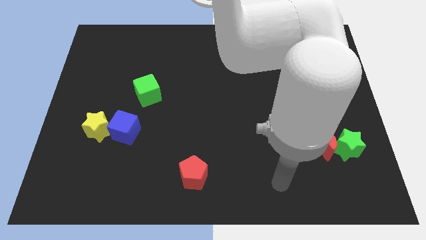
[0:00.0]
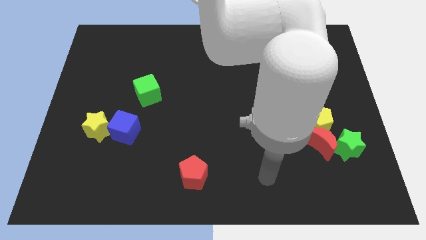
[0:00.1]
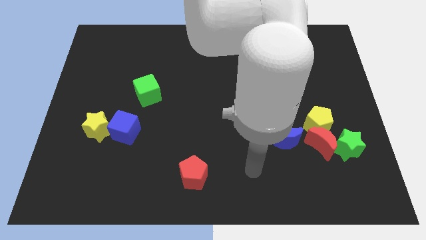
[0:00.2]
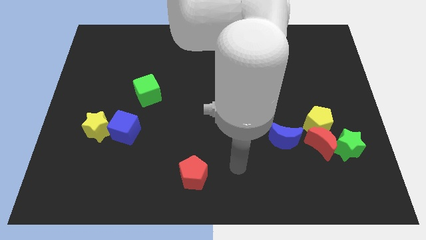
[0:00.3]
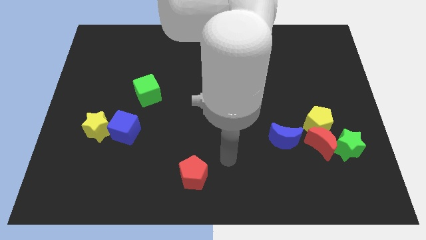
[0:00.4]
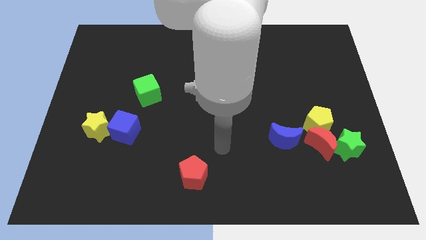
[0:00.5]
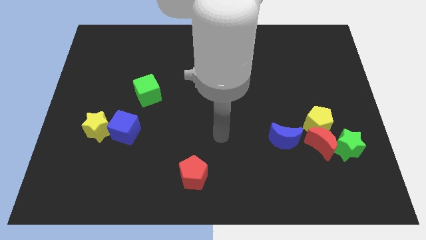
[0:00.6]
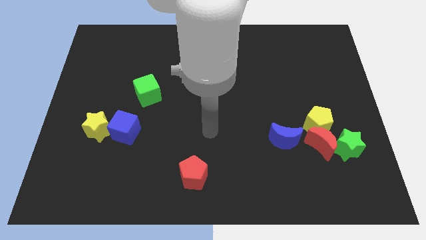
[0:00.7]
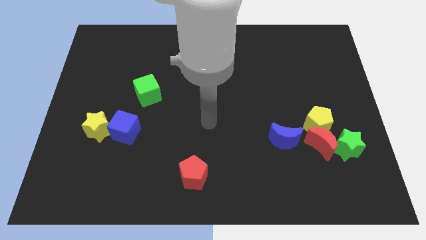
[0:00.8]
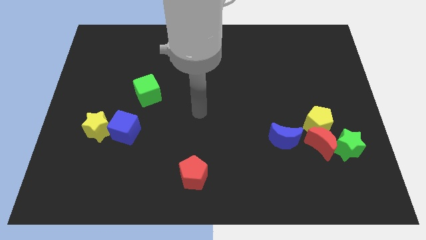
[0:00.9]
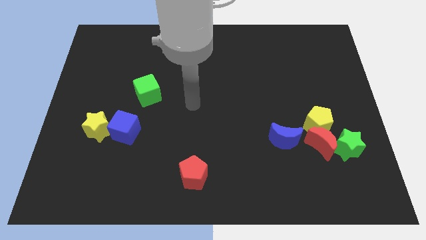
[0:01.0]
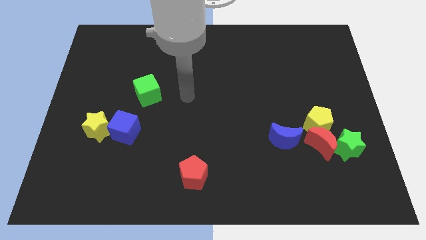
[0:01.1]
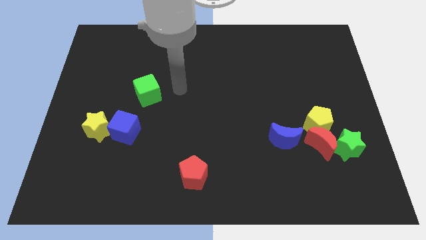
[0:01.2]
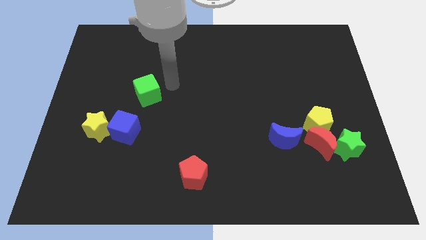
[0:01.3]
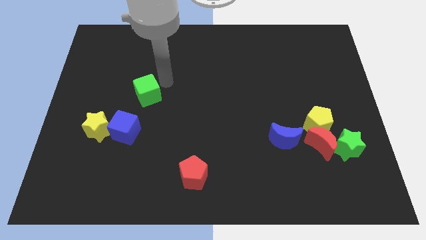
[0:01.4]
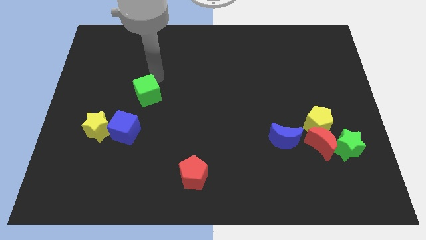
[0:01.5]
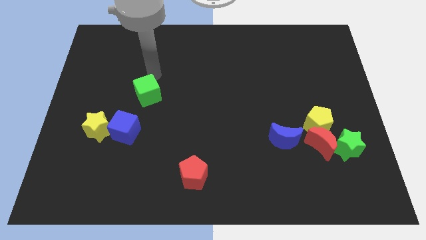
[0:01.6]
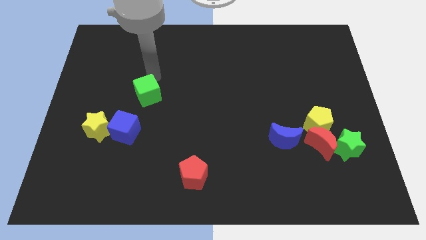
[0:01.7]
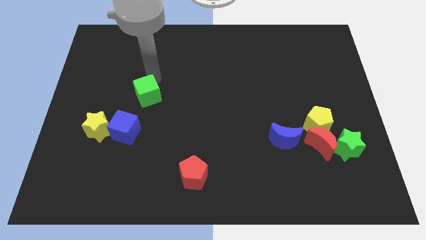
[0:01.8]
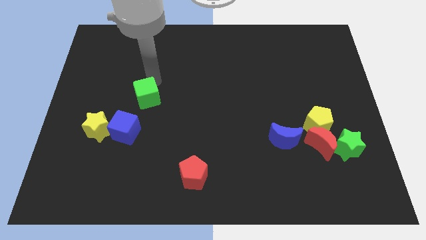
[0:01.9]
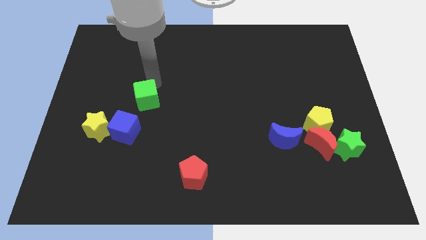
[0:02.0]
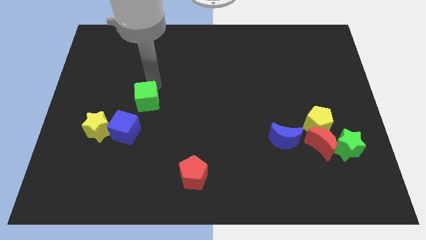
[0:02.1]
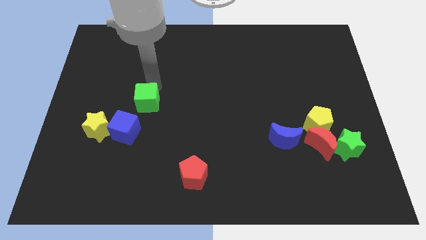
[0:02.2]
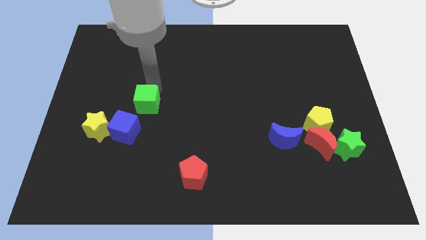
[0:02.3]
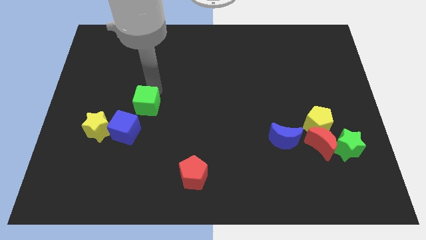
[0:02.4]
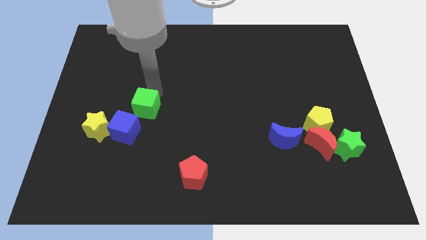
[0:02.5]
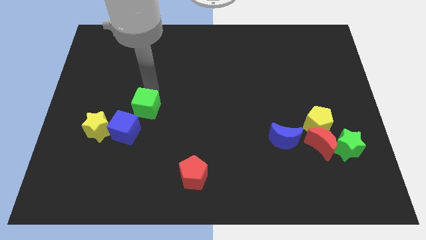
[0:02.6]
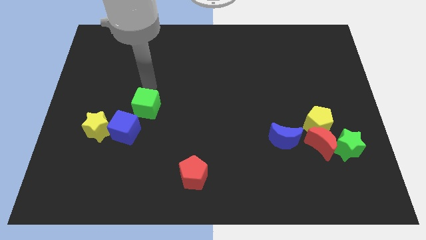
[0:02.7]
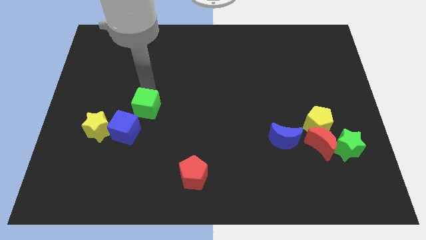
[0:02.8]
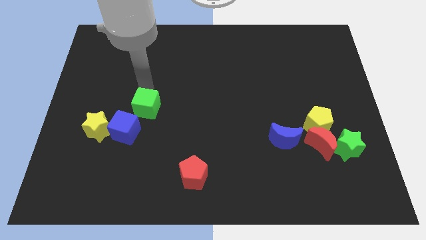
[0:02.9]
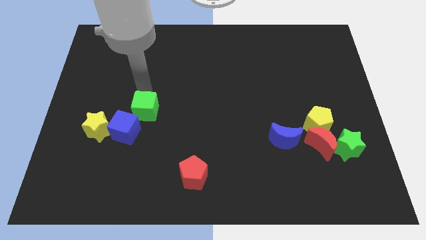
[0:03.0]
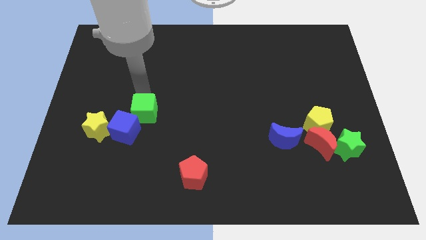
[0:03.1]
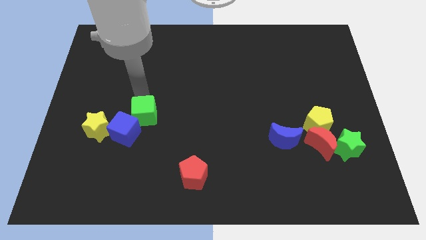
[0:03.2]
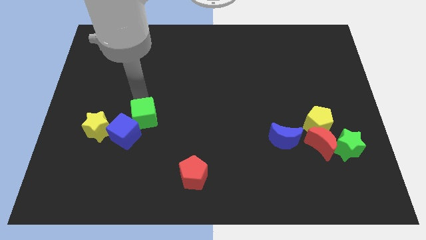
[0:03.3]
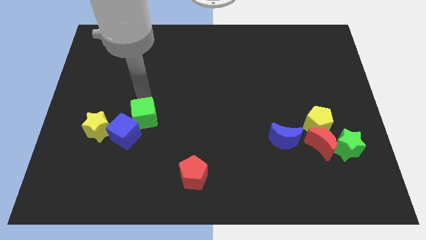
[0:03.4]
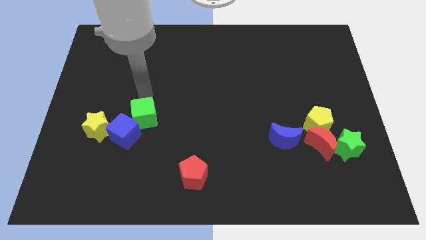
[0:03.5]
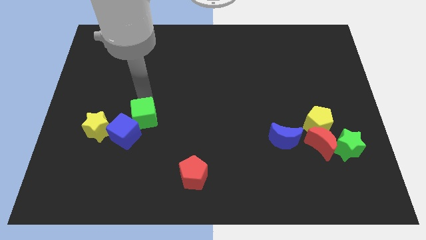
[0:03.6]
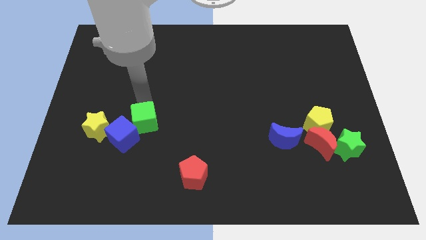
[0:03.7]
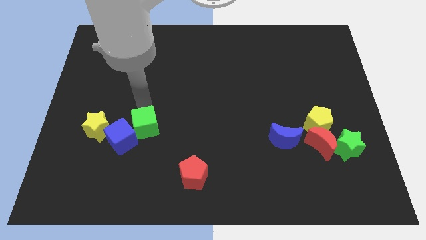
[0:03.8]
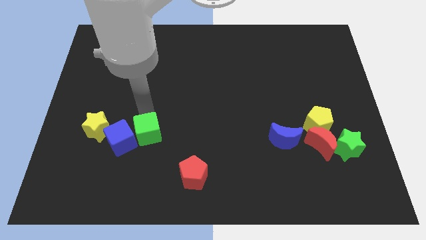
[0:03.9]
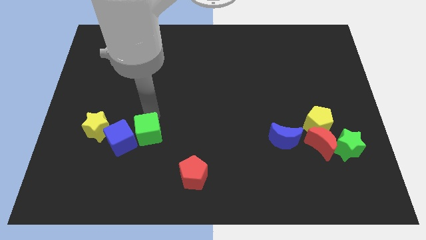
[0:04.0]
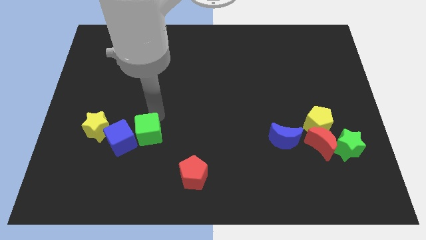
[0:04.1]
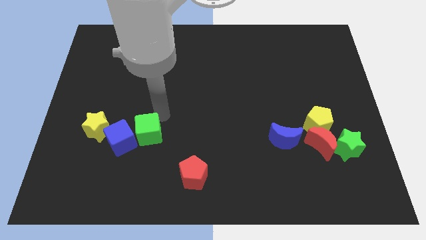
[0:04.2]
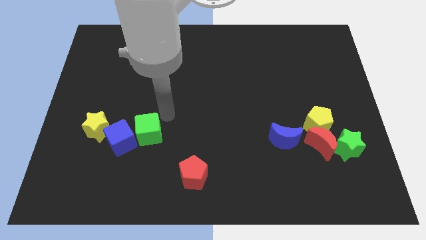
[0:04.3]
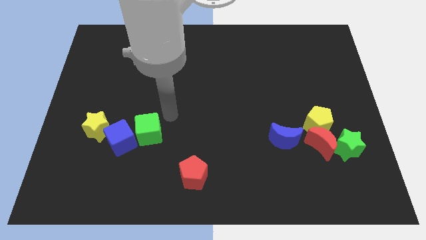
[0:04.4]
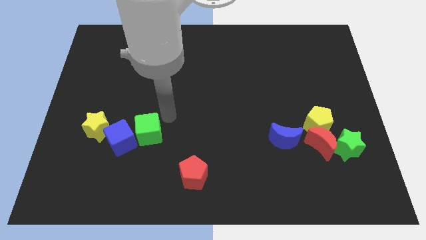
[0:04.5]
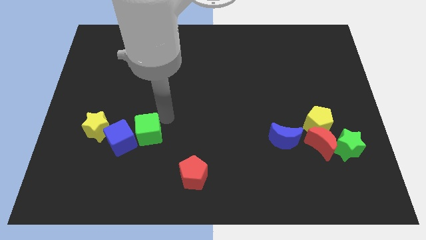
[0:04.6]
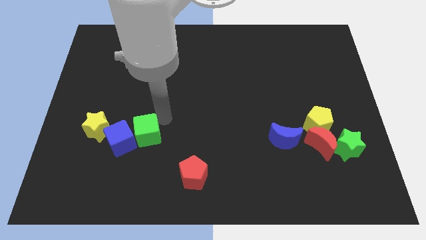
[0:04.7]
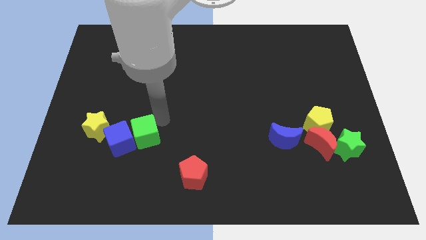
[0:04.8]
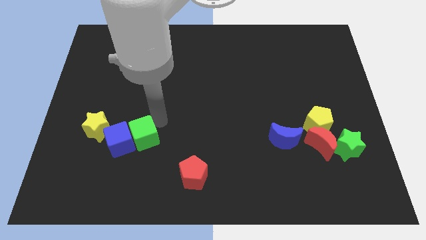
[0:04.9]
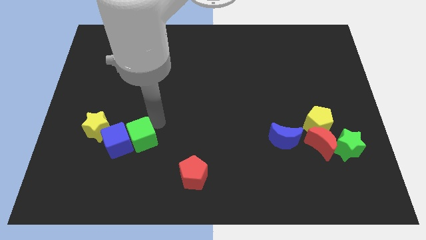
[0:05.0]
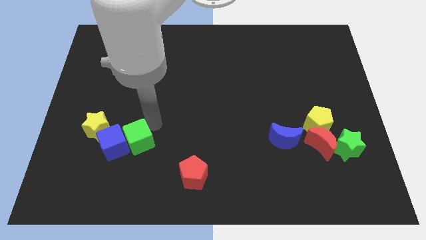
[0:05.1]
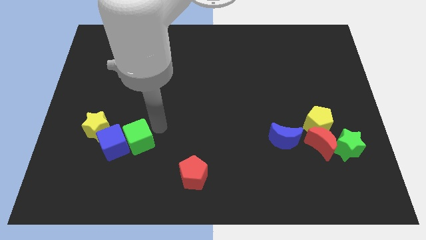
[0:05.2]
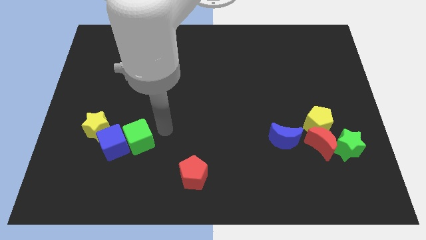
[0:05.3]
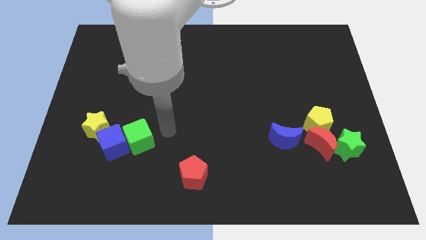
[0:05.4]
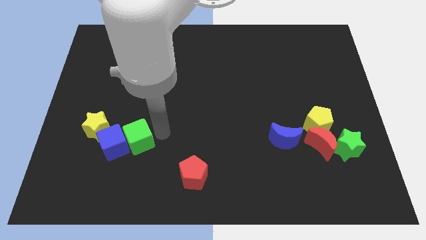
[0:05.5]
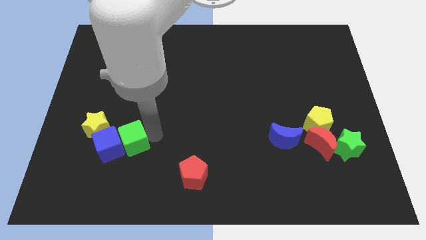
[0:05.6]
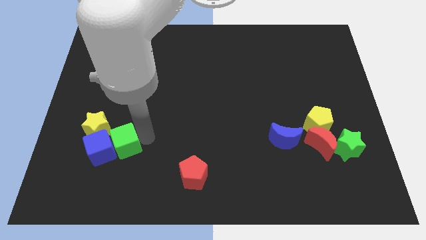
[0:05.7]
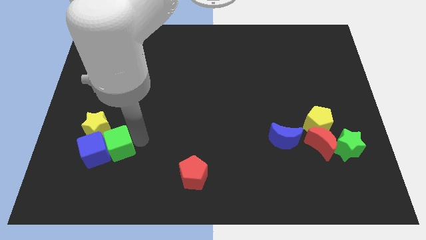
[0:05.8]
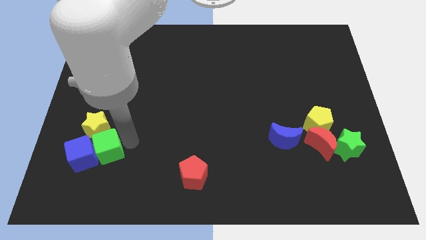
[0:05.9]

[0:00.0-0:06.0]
push the green cube to the bottom of the yellow star

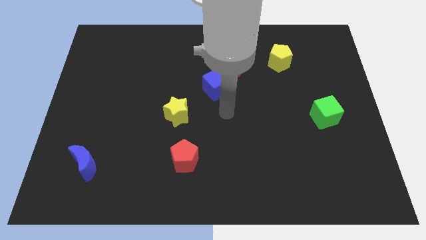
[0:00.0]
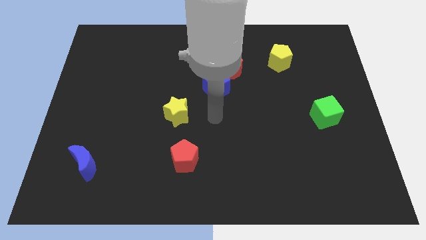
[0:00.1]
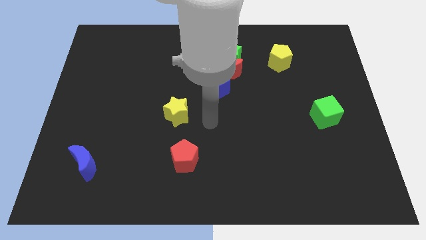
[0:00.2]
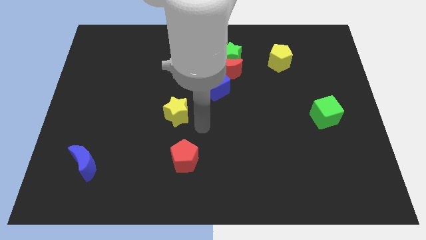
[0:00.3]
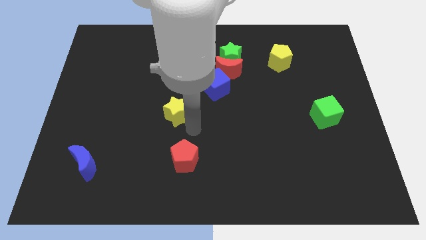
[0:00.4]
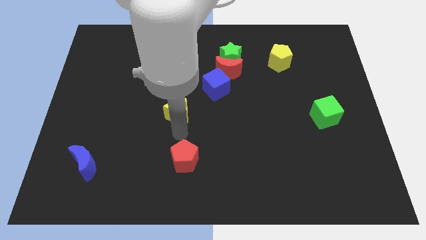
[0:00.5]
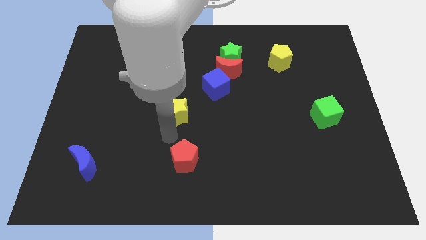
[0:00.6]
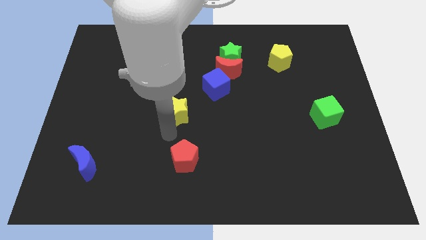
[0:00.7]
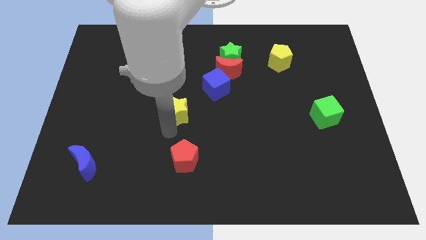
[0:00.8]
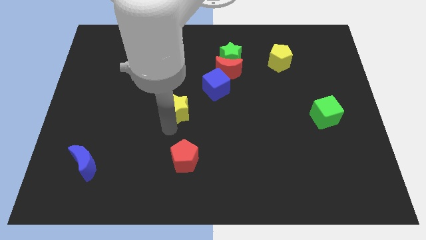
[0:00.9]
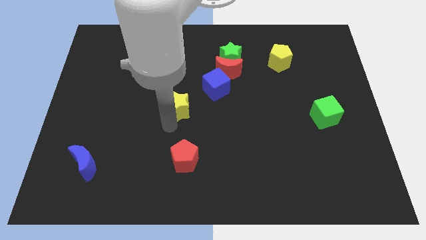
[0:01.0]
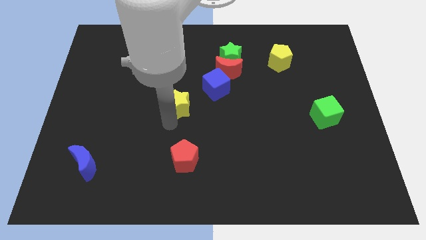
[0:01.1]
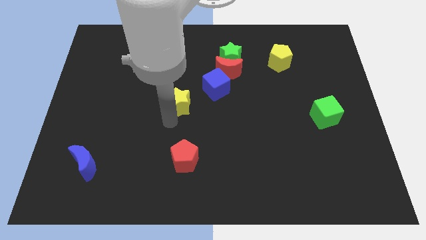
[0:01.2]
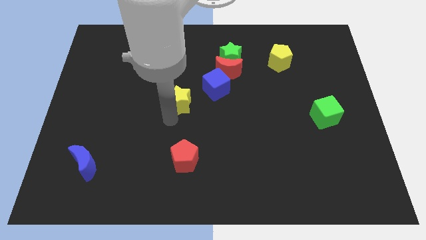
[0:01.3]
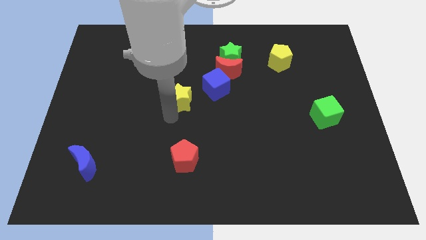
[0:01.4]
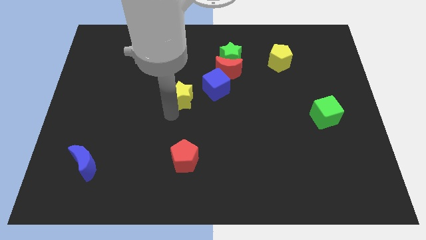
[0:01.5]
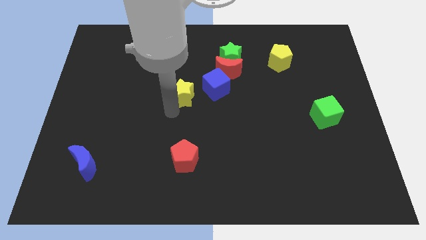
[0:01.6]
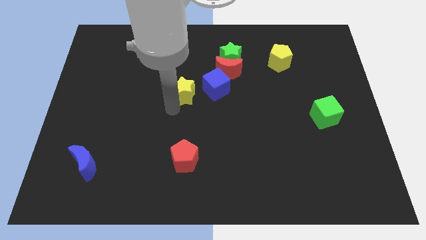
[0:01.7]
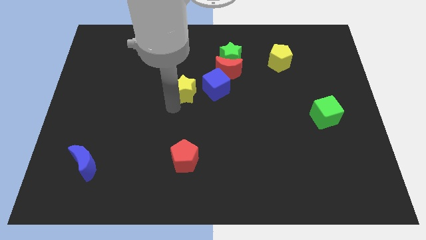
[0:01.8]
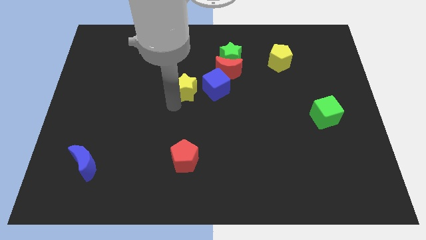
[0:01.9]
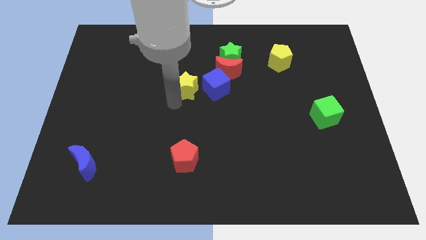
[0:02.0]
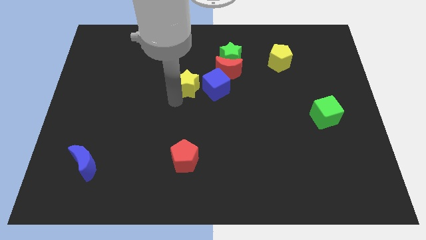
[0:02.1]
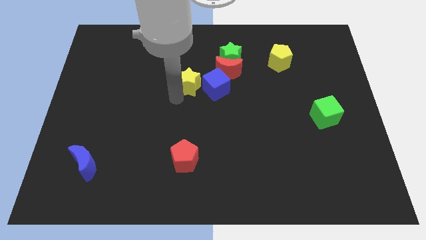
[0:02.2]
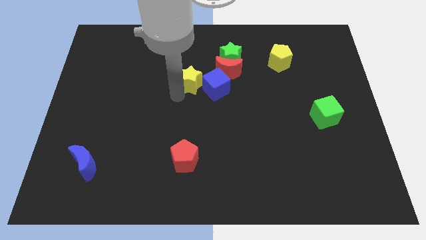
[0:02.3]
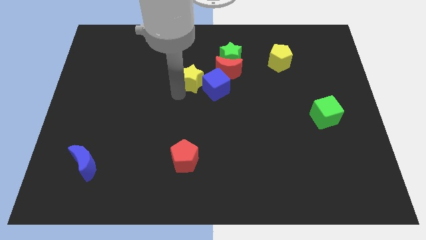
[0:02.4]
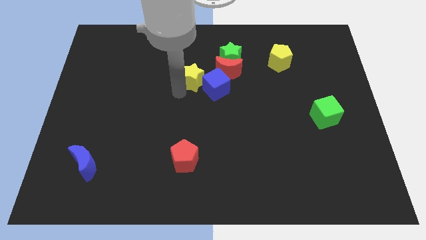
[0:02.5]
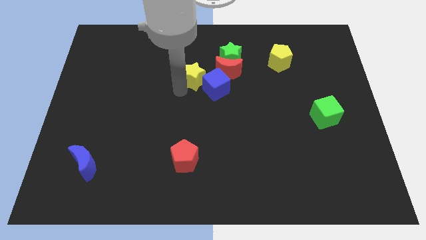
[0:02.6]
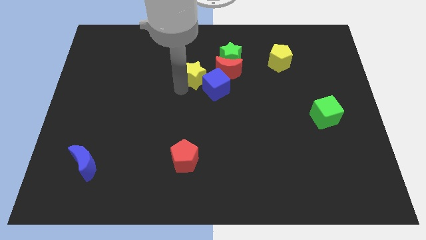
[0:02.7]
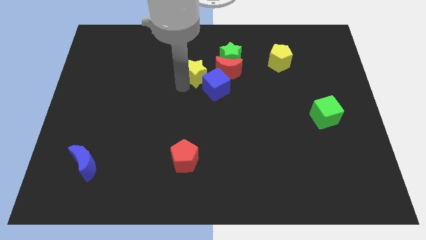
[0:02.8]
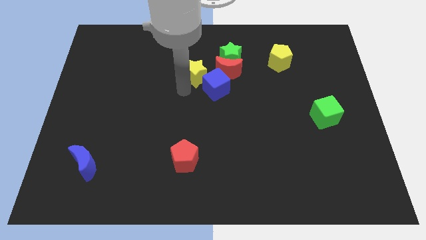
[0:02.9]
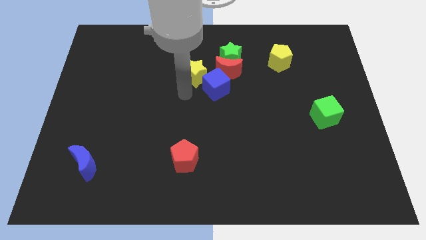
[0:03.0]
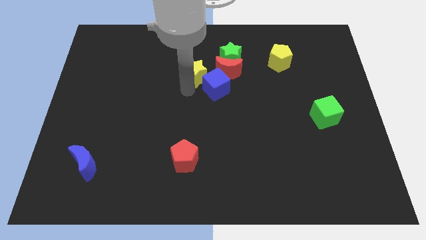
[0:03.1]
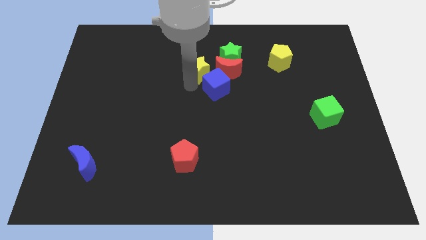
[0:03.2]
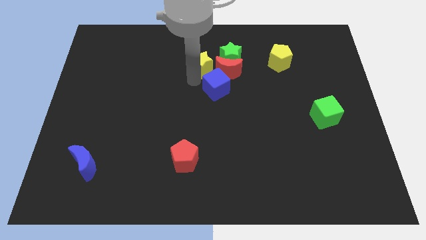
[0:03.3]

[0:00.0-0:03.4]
slide the yellow star to the top left of the red moon
